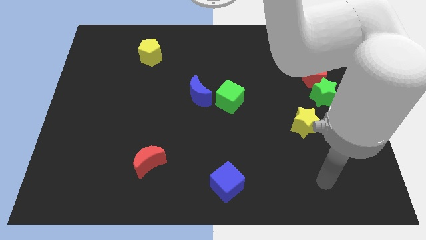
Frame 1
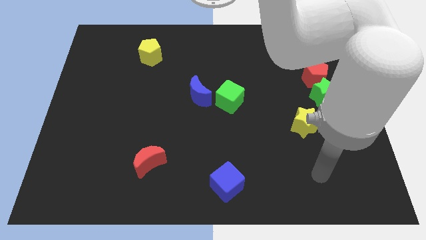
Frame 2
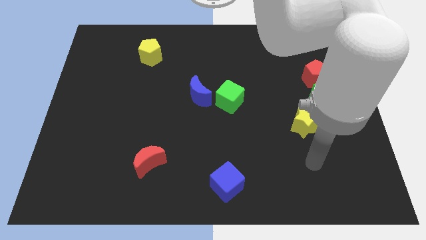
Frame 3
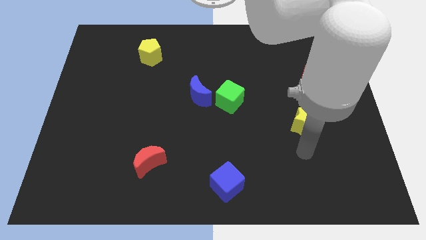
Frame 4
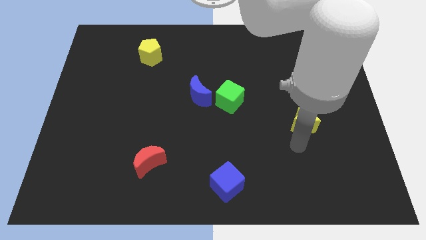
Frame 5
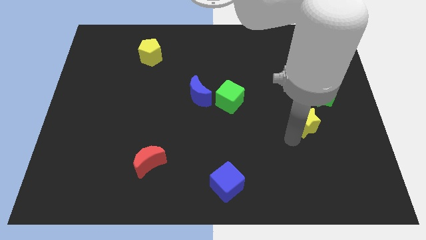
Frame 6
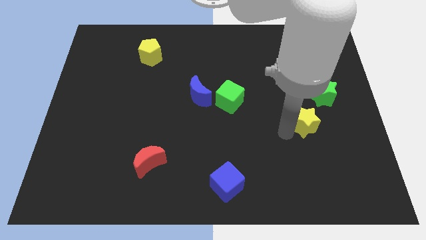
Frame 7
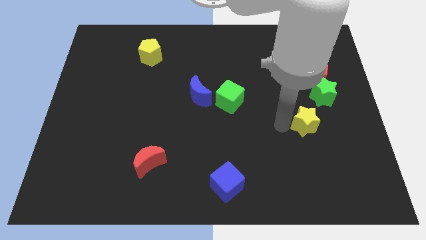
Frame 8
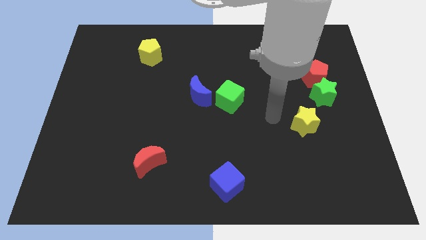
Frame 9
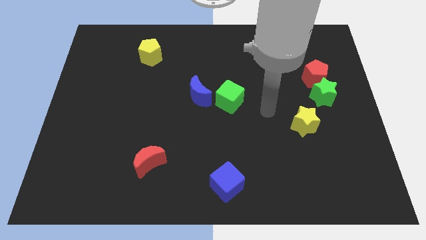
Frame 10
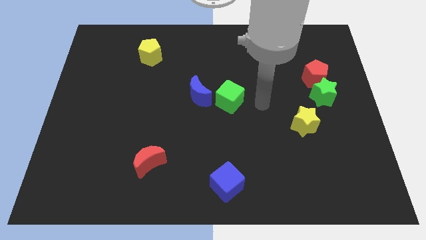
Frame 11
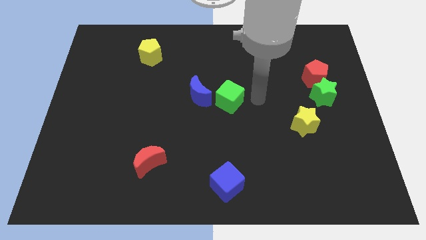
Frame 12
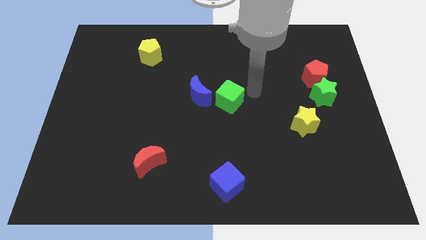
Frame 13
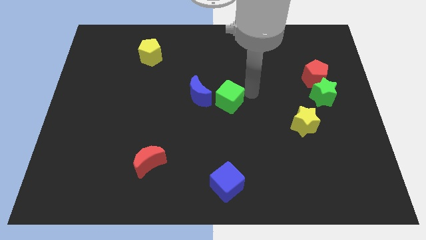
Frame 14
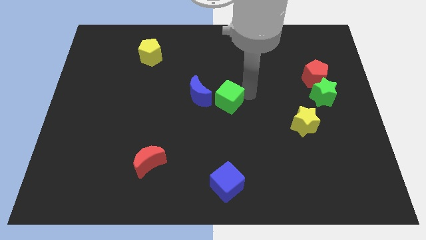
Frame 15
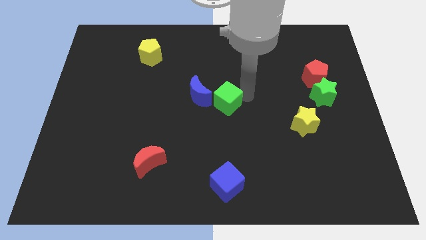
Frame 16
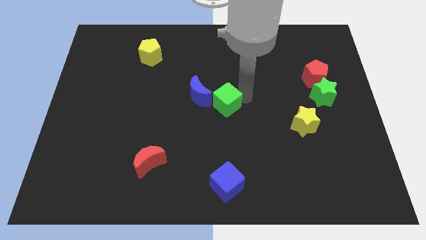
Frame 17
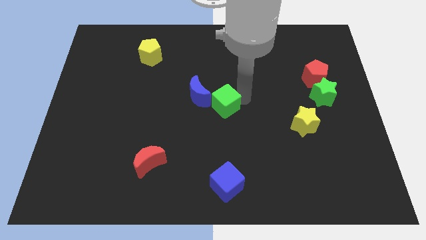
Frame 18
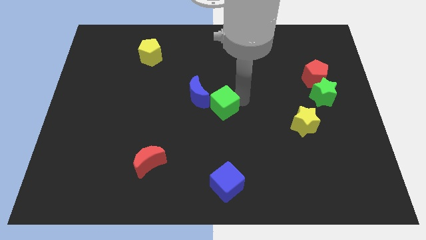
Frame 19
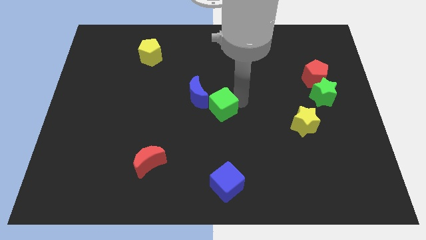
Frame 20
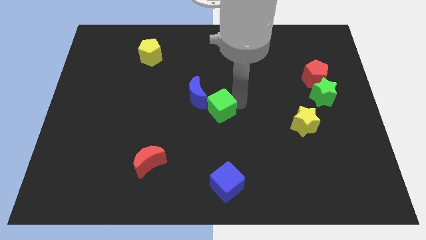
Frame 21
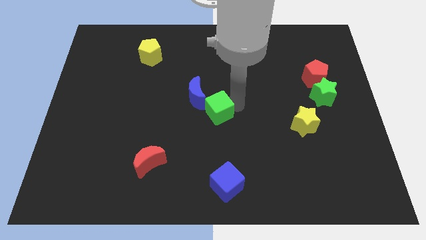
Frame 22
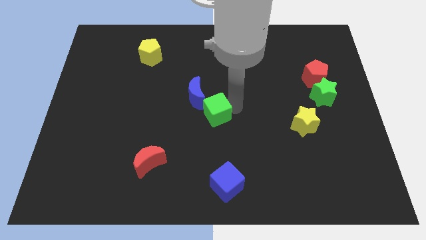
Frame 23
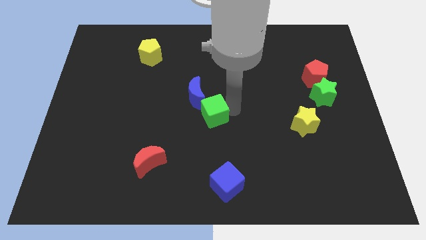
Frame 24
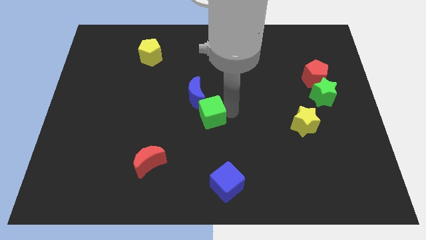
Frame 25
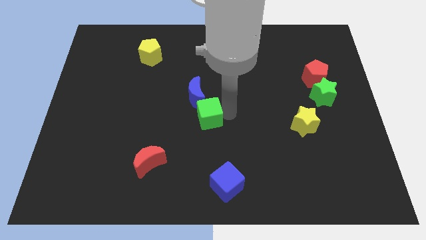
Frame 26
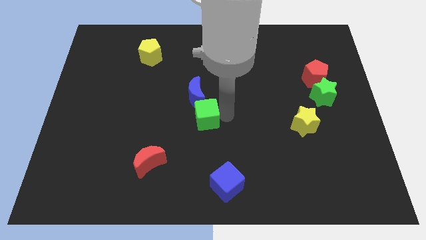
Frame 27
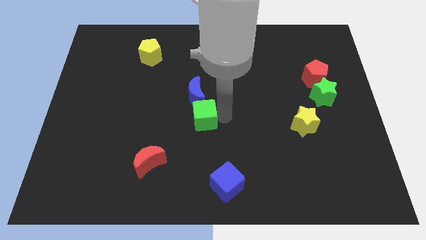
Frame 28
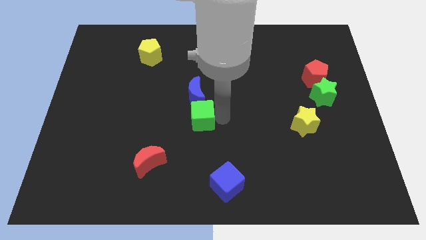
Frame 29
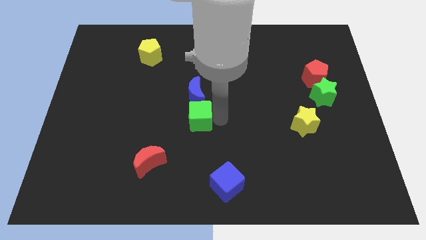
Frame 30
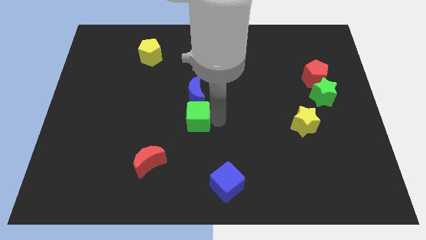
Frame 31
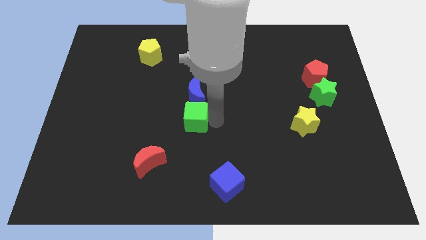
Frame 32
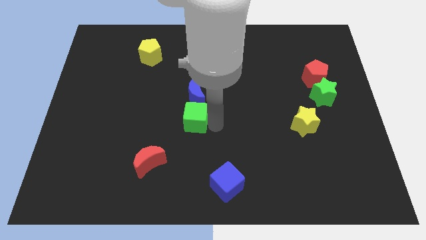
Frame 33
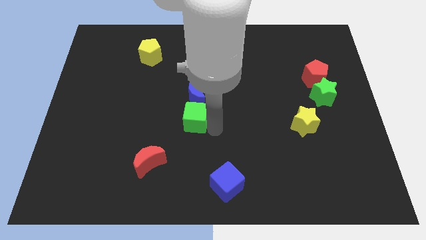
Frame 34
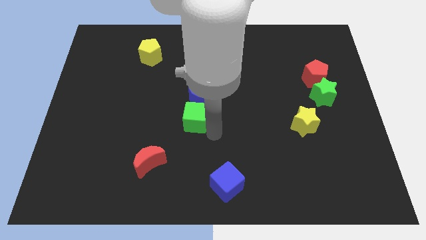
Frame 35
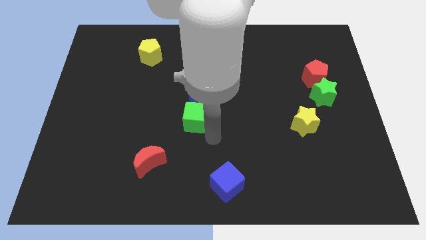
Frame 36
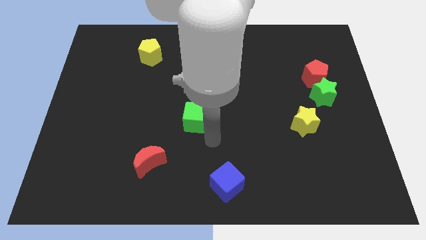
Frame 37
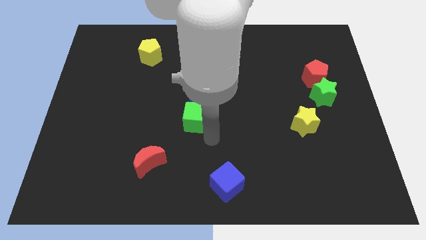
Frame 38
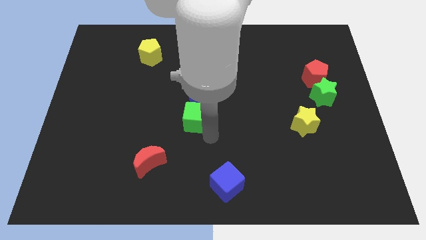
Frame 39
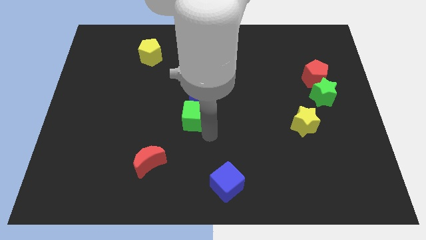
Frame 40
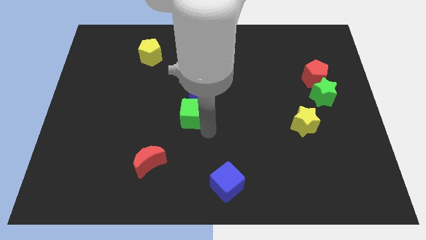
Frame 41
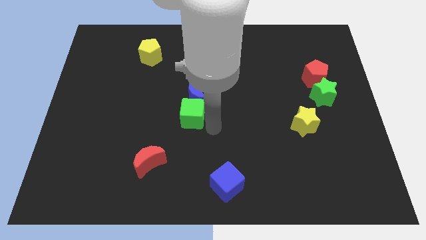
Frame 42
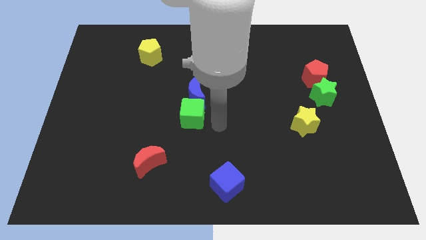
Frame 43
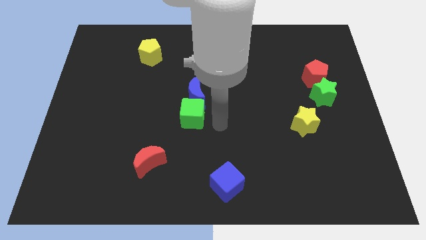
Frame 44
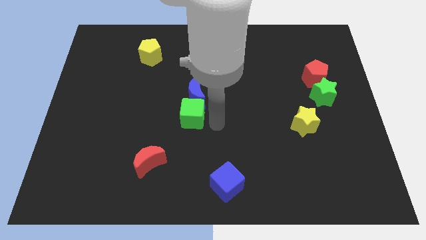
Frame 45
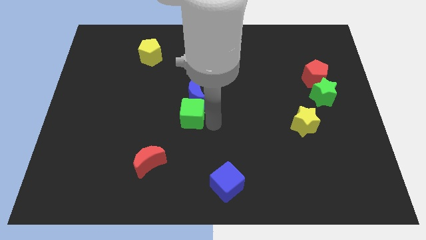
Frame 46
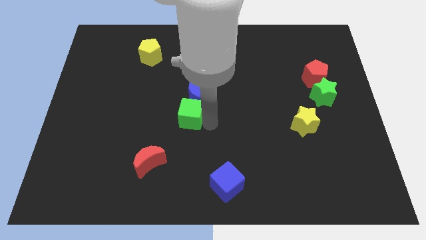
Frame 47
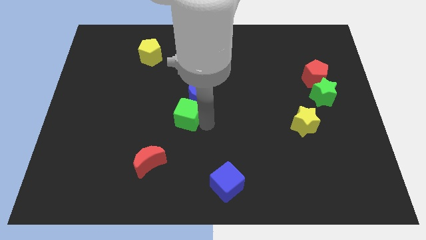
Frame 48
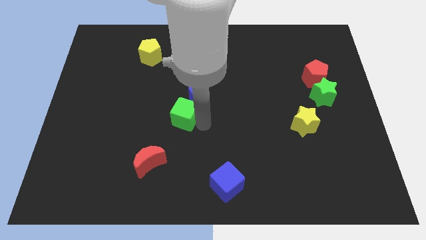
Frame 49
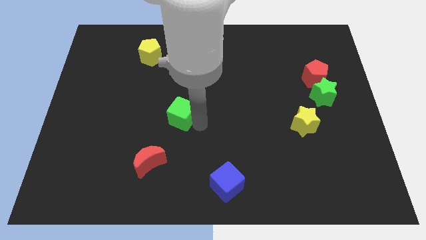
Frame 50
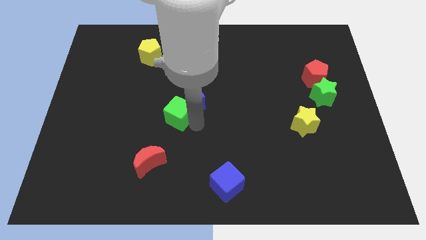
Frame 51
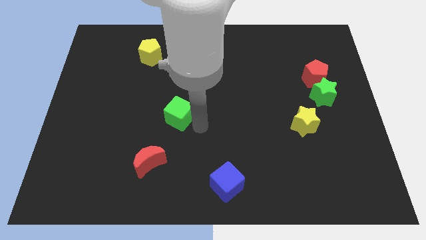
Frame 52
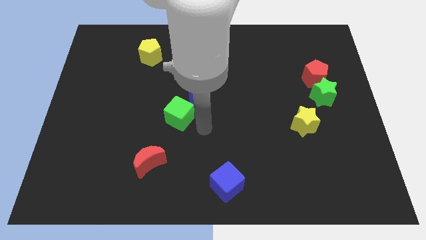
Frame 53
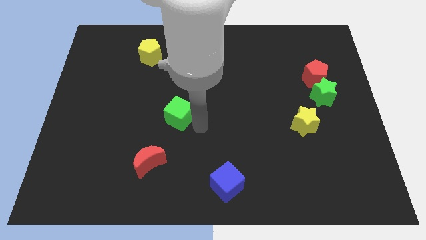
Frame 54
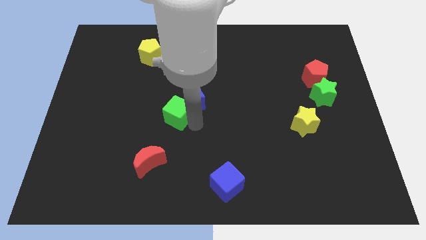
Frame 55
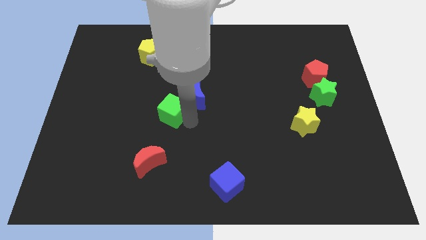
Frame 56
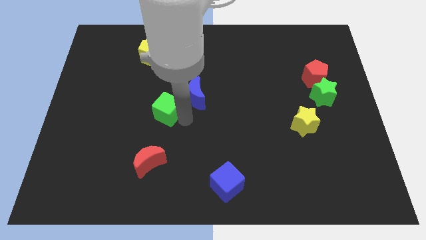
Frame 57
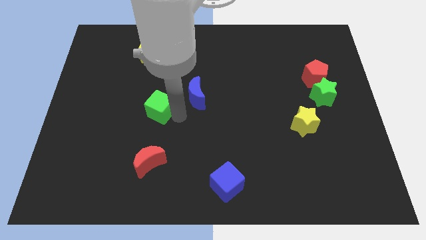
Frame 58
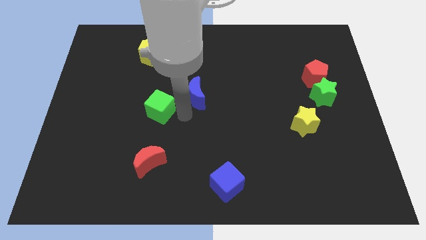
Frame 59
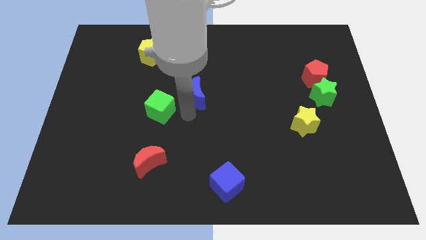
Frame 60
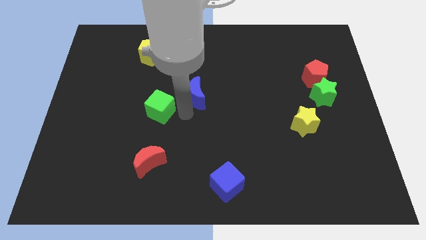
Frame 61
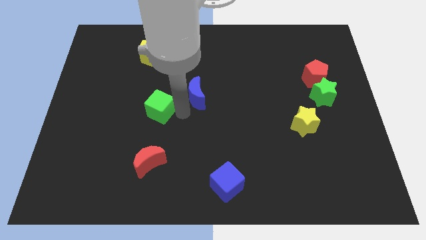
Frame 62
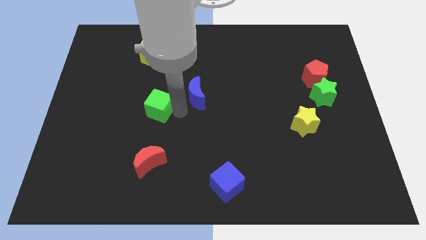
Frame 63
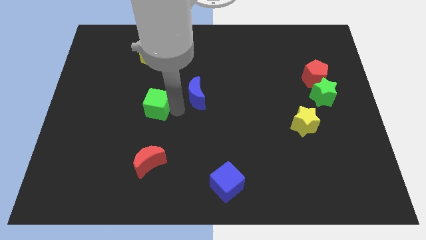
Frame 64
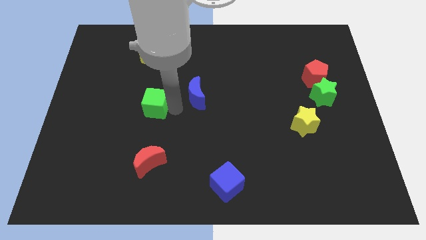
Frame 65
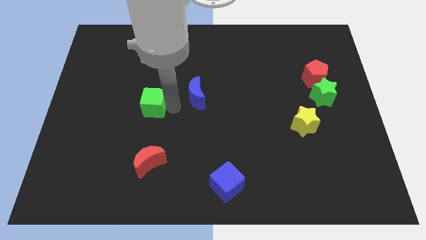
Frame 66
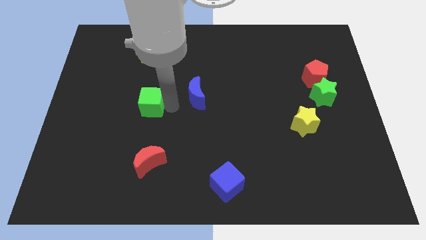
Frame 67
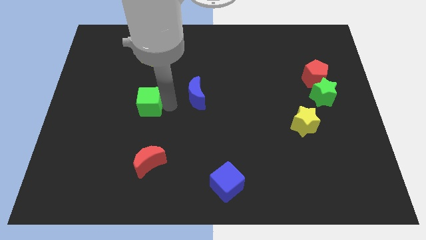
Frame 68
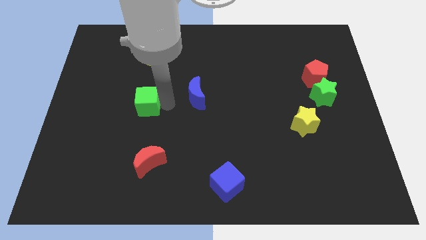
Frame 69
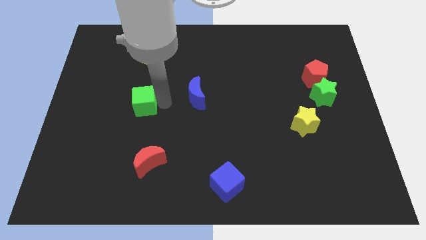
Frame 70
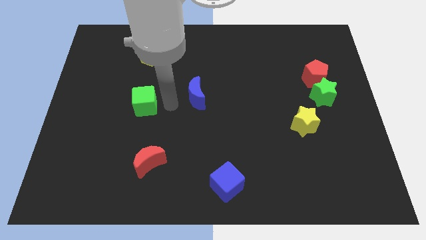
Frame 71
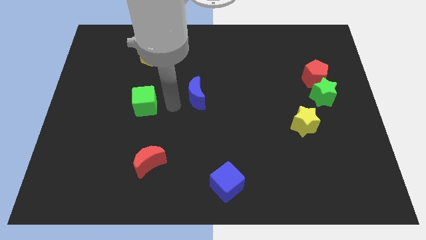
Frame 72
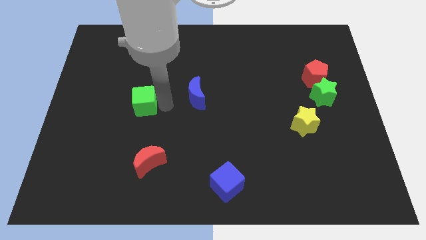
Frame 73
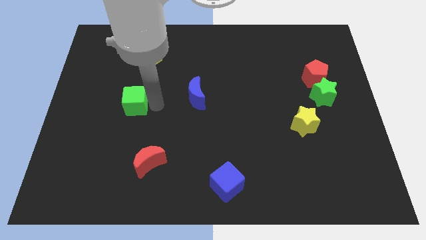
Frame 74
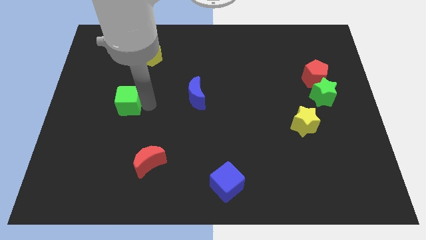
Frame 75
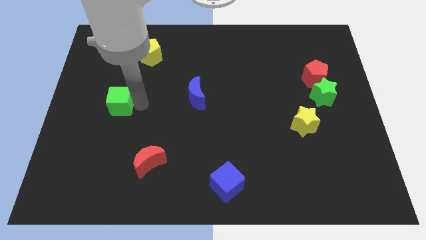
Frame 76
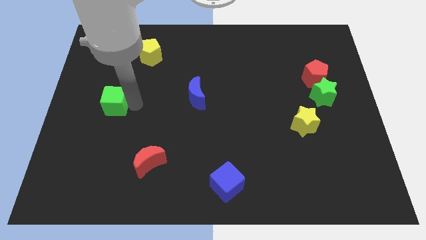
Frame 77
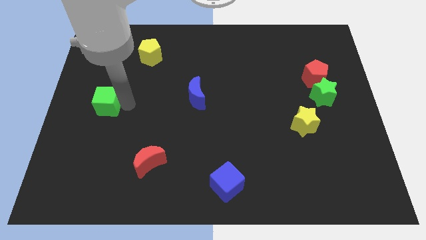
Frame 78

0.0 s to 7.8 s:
move the green cube to the center left
